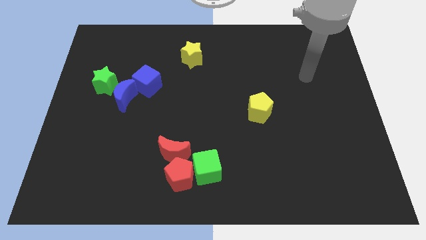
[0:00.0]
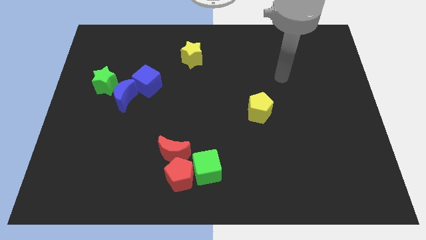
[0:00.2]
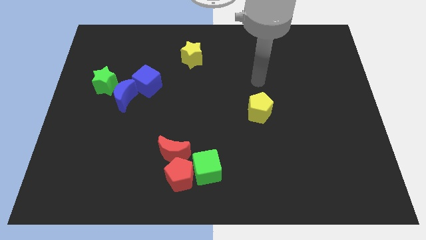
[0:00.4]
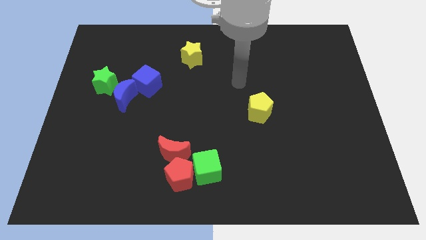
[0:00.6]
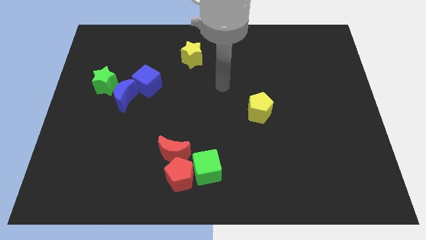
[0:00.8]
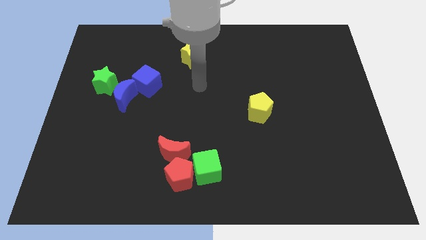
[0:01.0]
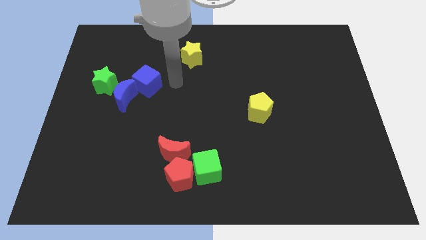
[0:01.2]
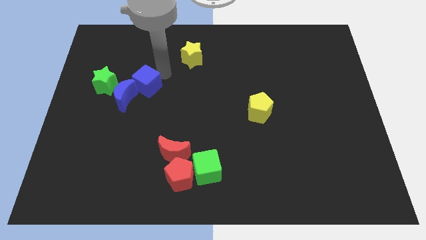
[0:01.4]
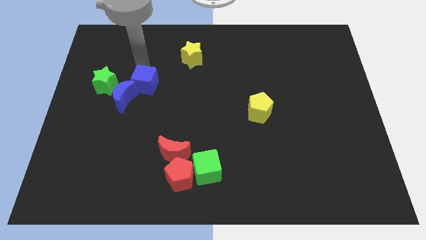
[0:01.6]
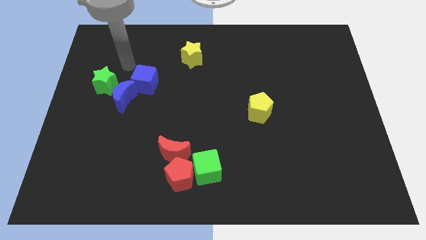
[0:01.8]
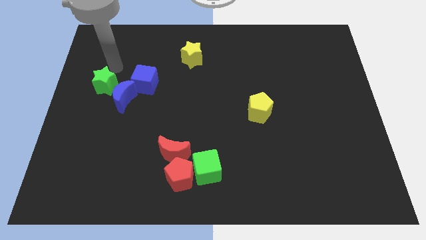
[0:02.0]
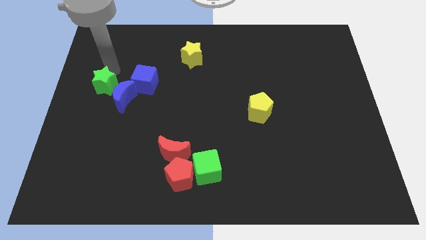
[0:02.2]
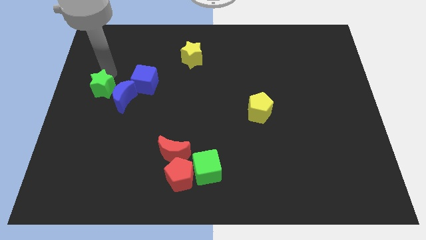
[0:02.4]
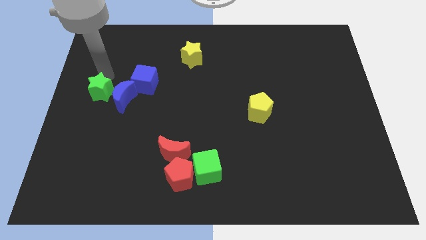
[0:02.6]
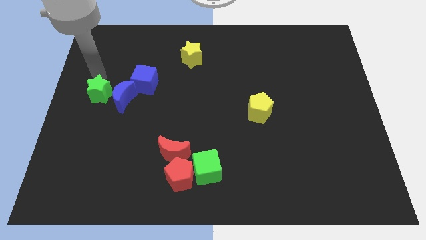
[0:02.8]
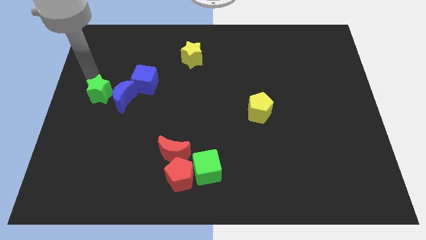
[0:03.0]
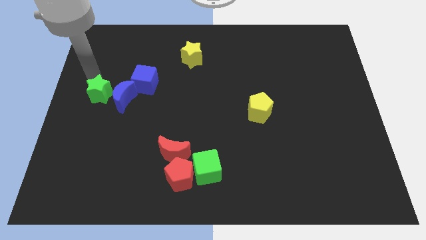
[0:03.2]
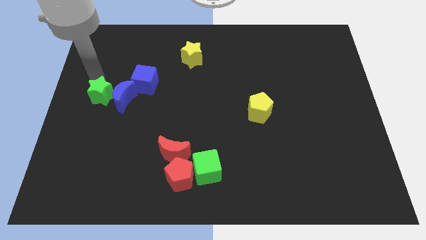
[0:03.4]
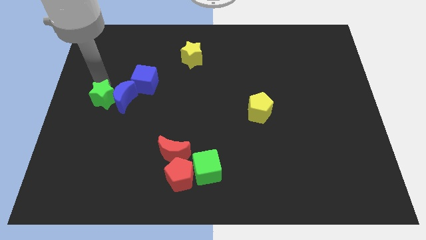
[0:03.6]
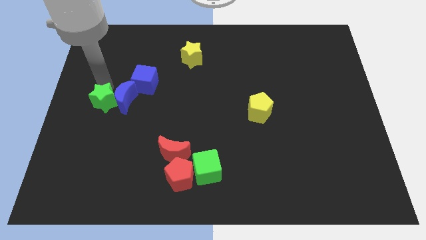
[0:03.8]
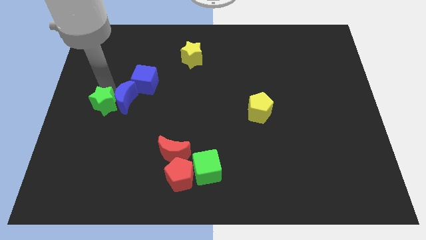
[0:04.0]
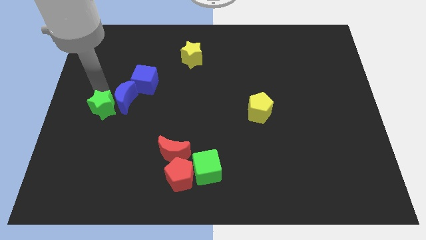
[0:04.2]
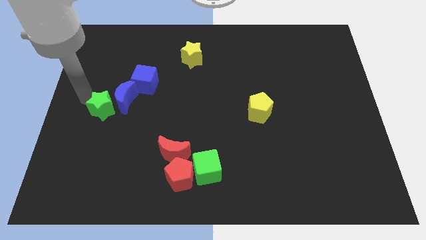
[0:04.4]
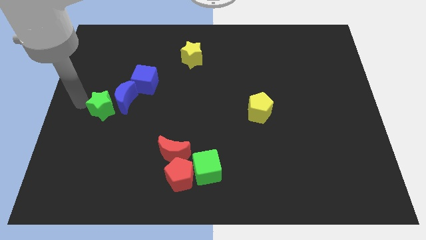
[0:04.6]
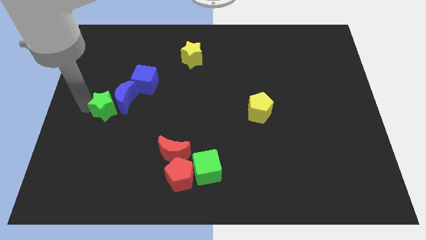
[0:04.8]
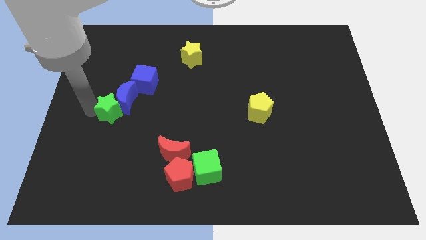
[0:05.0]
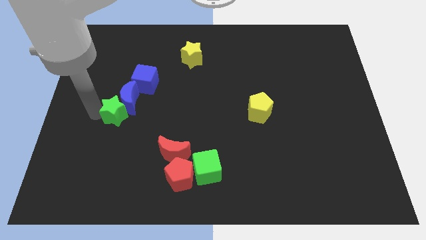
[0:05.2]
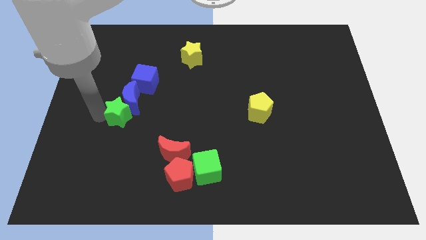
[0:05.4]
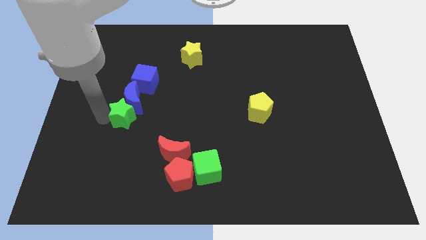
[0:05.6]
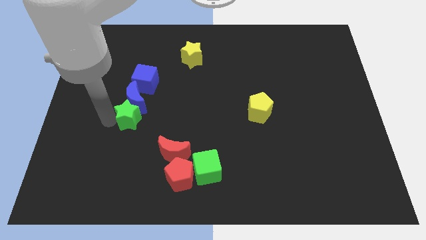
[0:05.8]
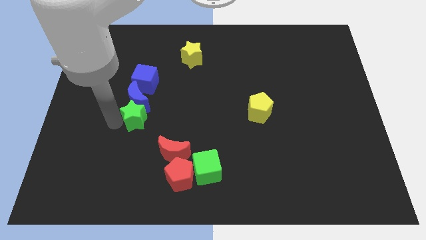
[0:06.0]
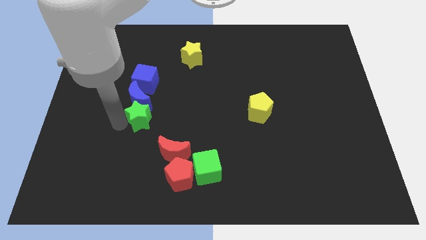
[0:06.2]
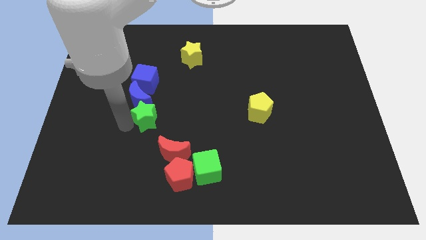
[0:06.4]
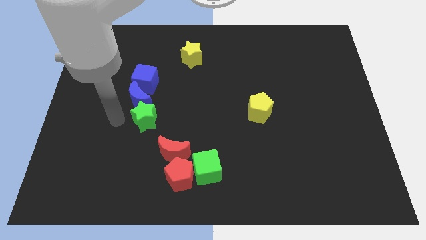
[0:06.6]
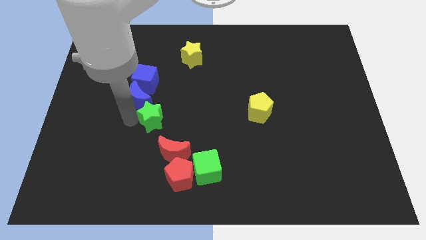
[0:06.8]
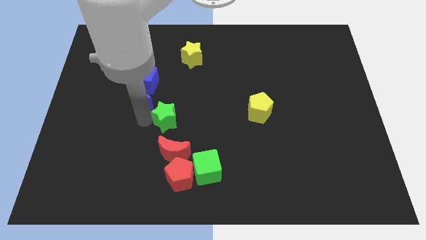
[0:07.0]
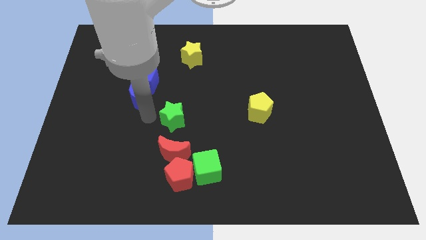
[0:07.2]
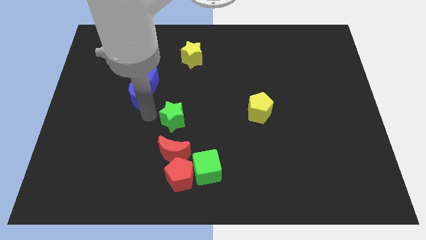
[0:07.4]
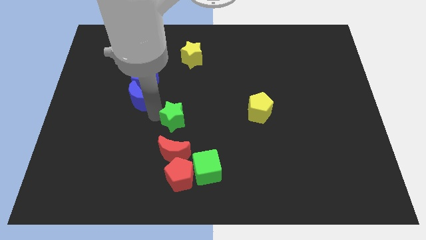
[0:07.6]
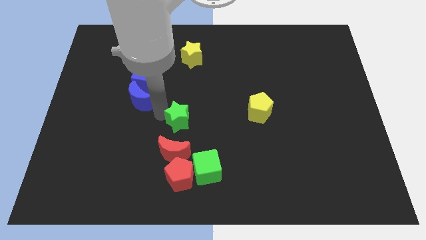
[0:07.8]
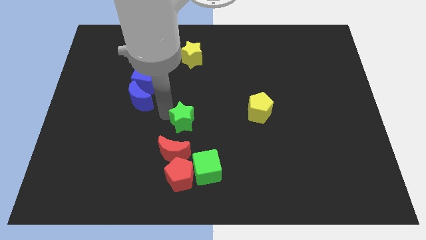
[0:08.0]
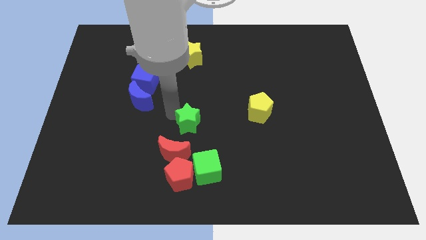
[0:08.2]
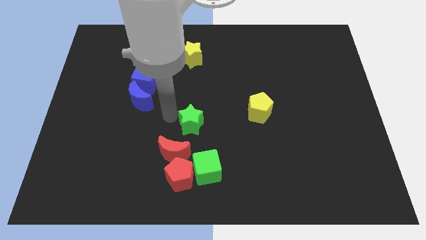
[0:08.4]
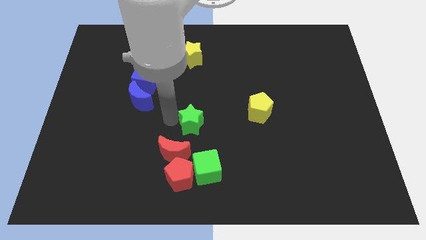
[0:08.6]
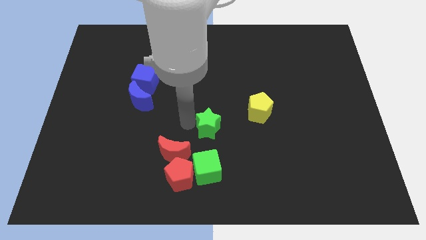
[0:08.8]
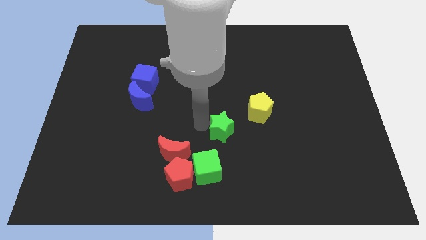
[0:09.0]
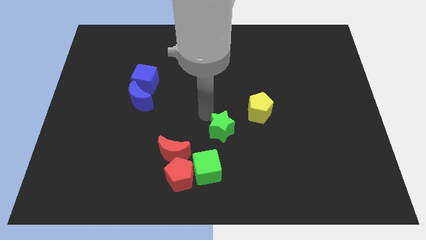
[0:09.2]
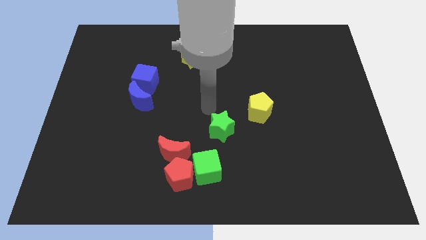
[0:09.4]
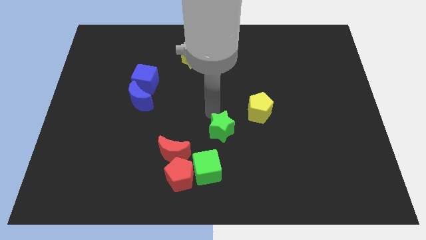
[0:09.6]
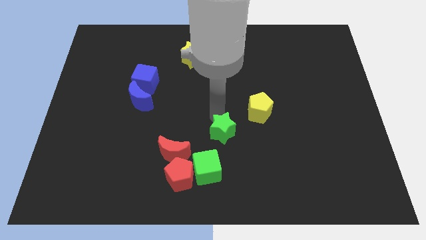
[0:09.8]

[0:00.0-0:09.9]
push the green star to the top right of the green cube

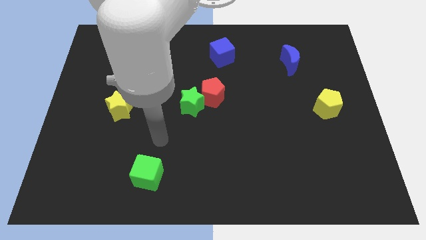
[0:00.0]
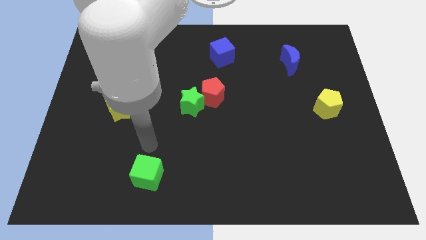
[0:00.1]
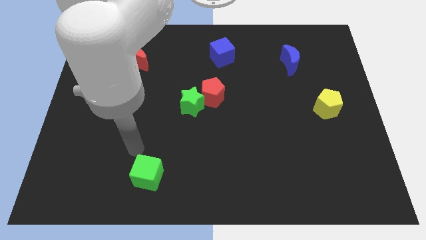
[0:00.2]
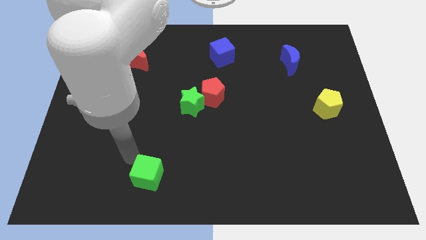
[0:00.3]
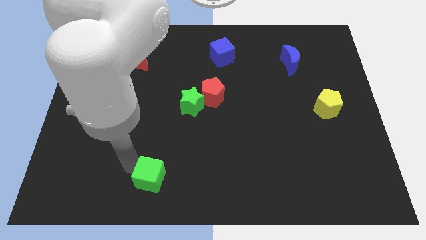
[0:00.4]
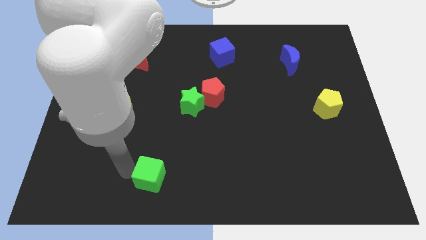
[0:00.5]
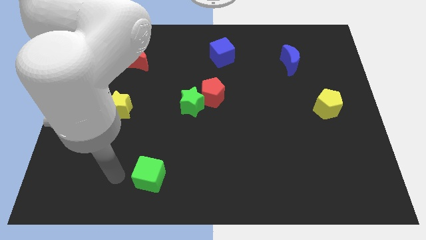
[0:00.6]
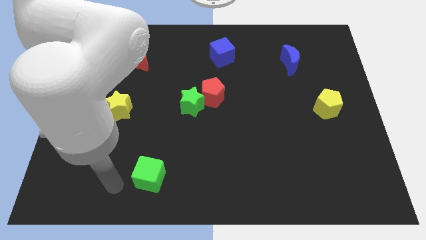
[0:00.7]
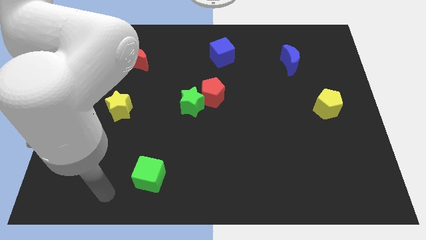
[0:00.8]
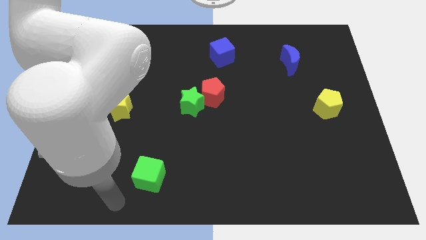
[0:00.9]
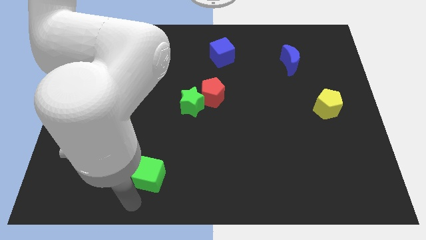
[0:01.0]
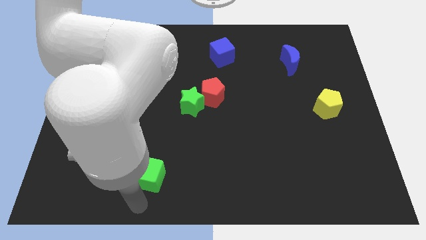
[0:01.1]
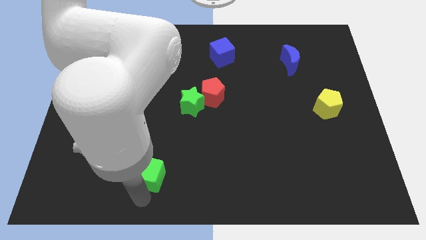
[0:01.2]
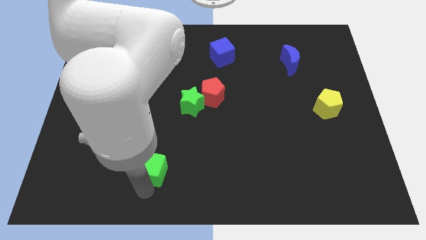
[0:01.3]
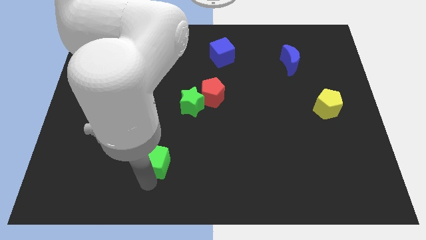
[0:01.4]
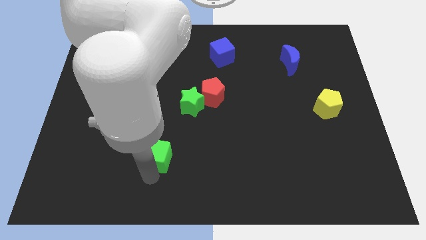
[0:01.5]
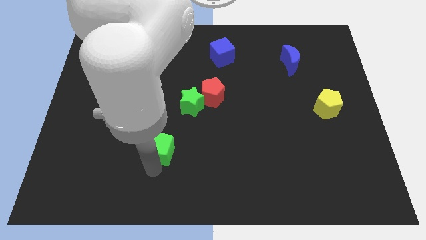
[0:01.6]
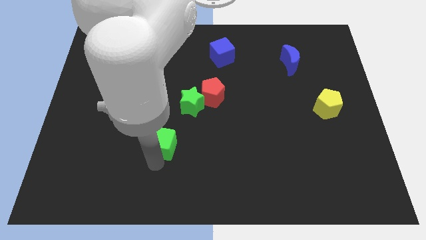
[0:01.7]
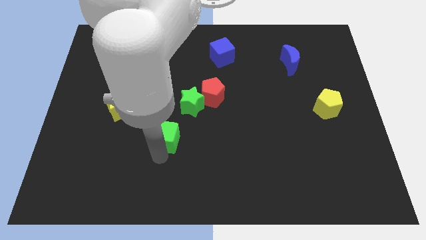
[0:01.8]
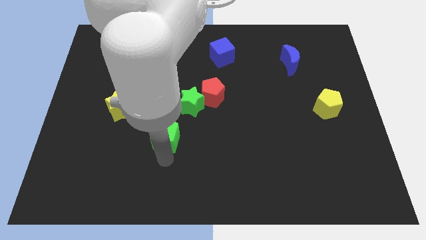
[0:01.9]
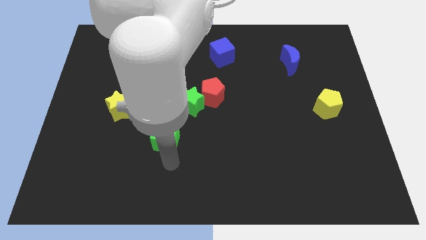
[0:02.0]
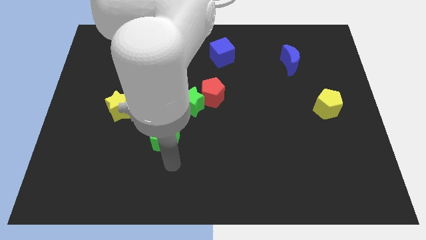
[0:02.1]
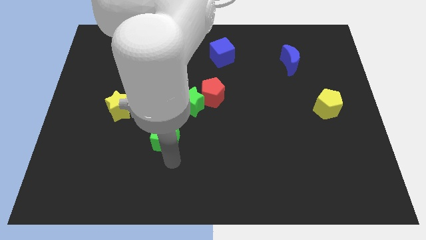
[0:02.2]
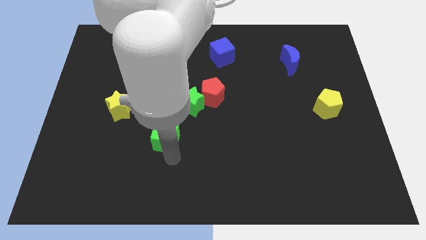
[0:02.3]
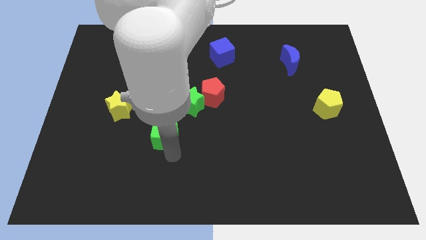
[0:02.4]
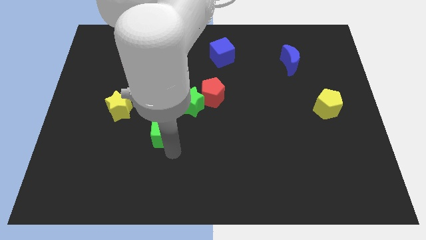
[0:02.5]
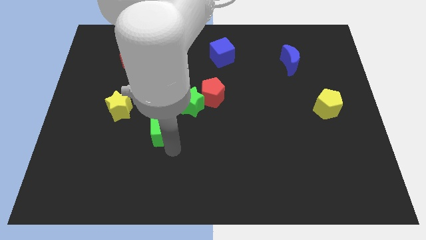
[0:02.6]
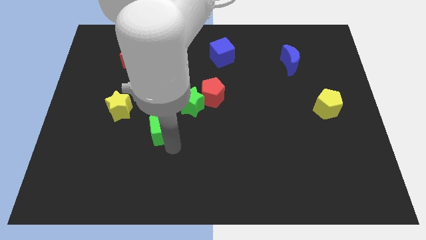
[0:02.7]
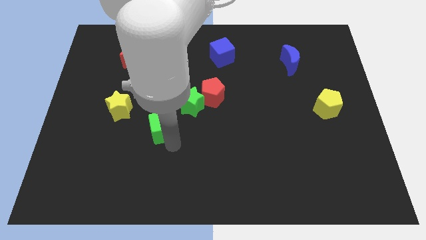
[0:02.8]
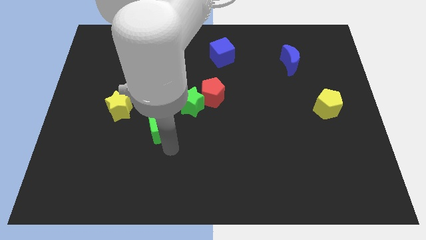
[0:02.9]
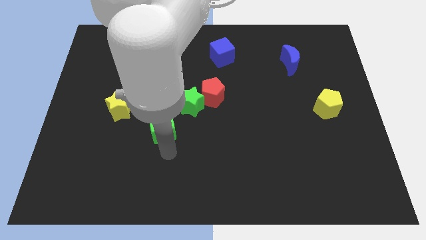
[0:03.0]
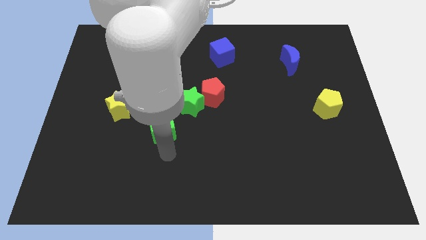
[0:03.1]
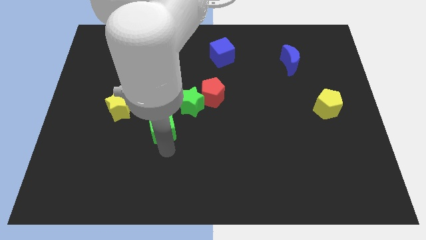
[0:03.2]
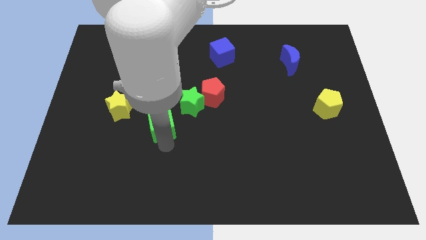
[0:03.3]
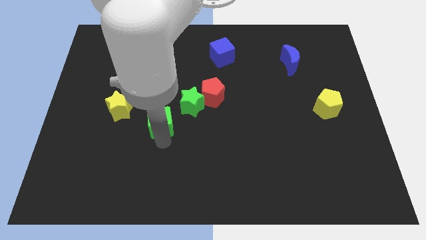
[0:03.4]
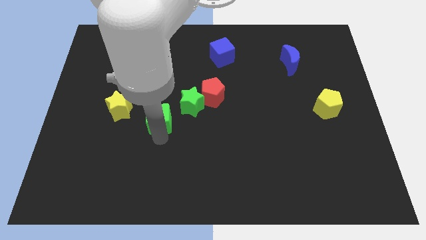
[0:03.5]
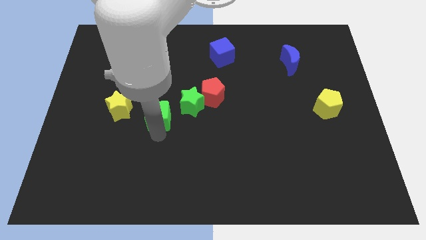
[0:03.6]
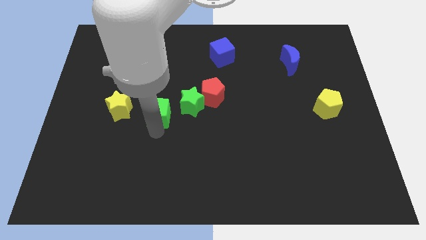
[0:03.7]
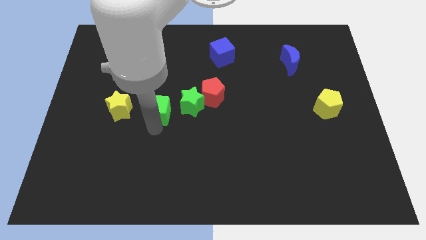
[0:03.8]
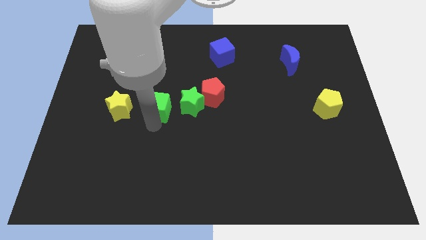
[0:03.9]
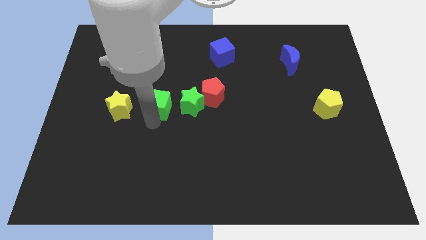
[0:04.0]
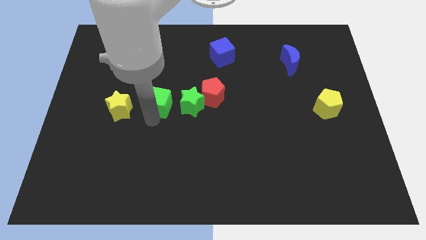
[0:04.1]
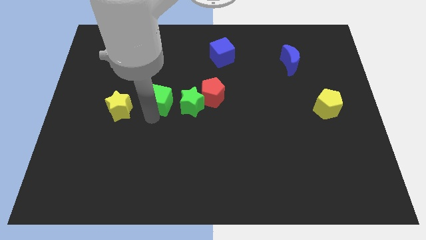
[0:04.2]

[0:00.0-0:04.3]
slide the green cube diagonally up and to the left of the green star
